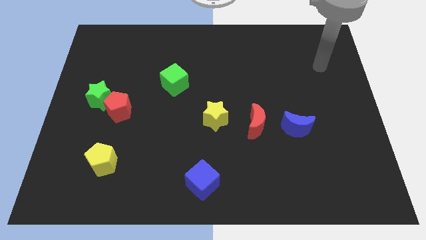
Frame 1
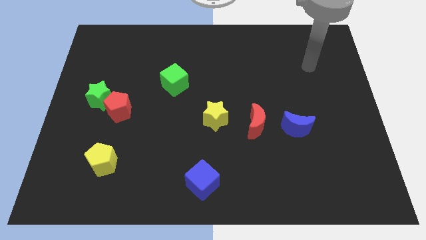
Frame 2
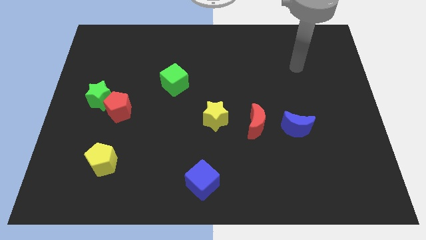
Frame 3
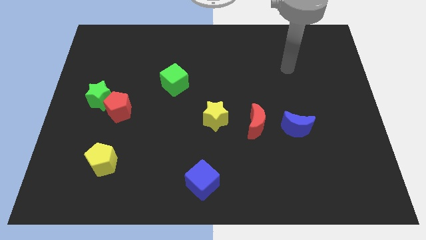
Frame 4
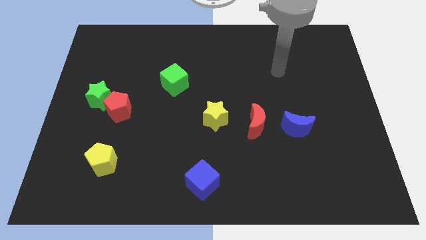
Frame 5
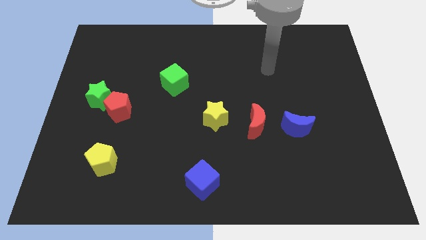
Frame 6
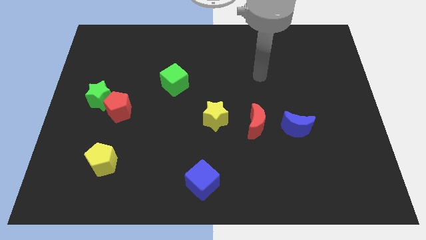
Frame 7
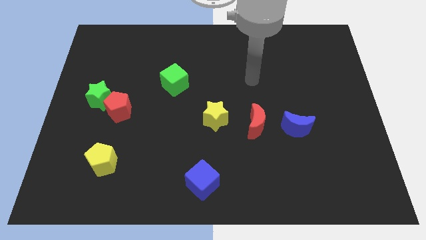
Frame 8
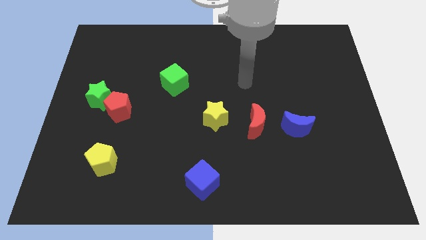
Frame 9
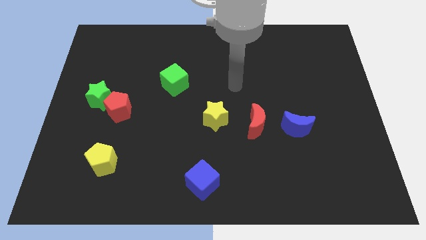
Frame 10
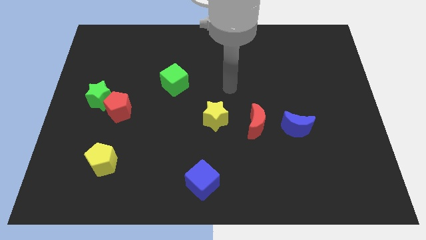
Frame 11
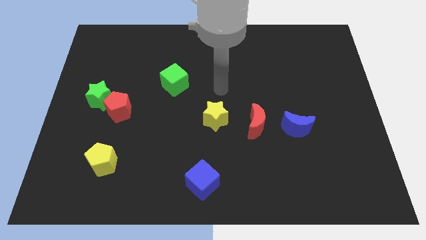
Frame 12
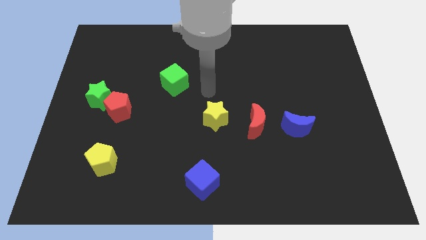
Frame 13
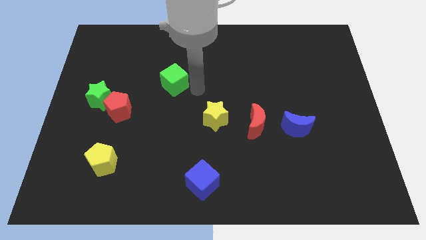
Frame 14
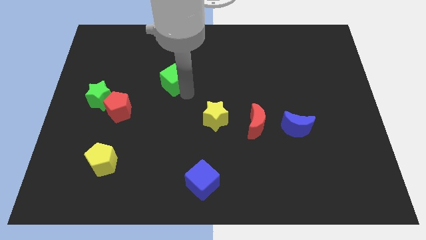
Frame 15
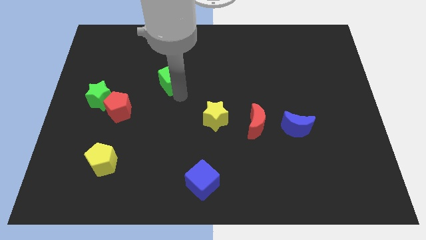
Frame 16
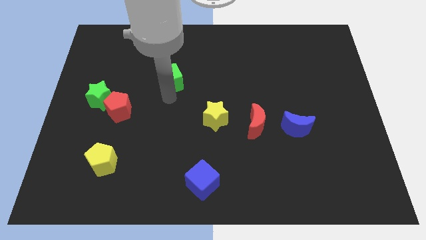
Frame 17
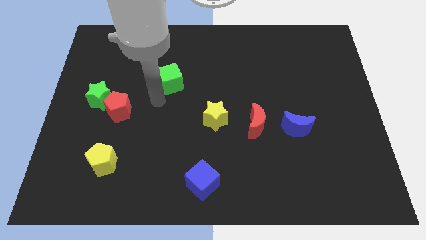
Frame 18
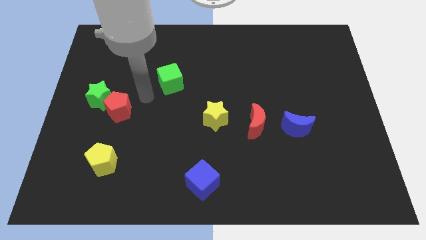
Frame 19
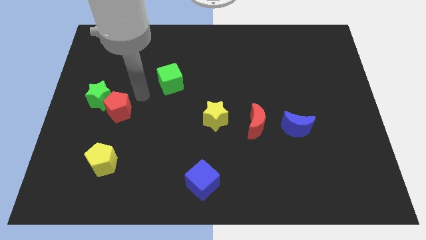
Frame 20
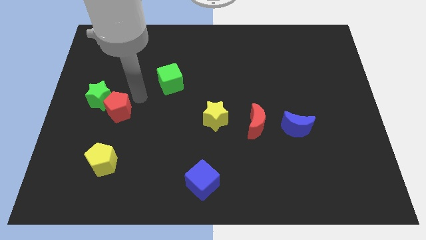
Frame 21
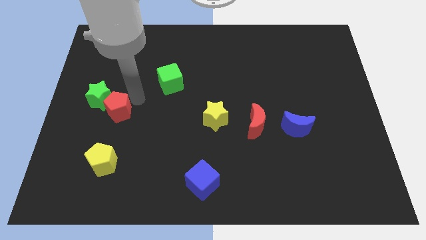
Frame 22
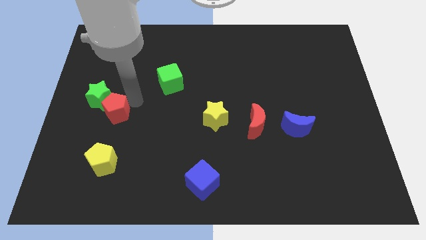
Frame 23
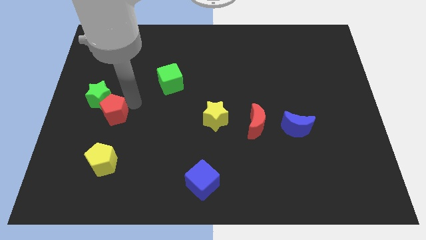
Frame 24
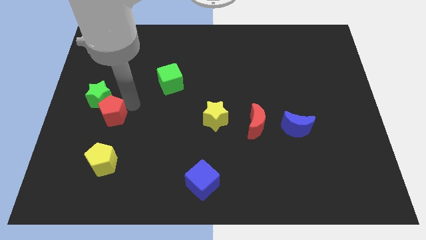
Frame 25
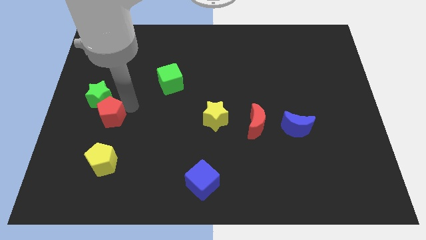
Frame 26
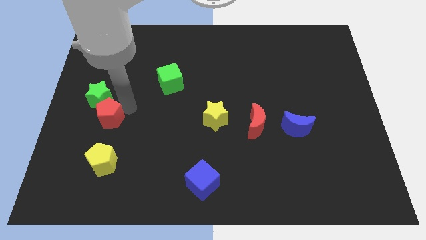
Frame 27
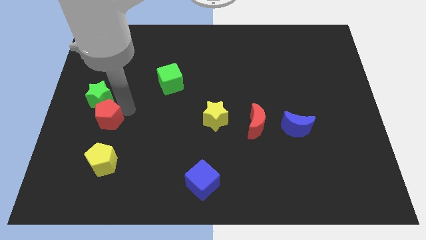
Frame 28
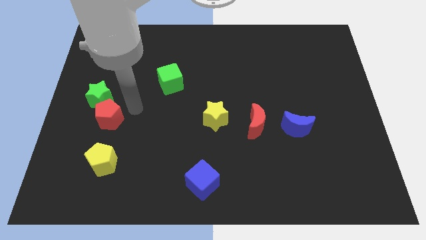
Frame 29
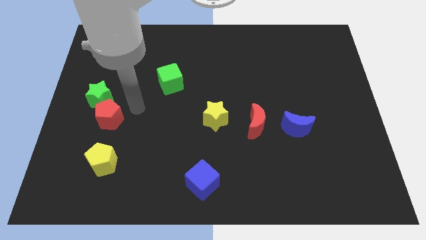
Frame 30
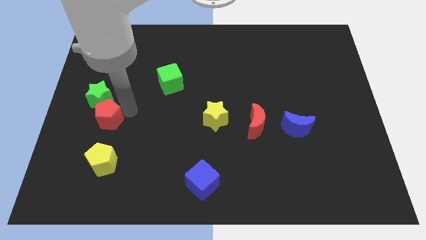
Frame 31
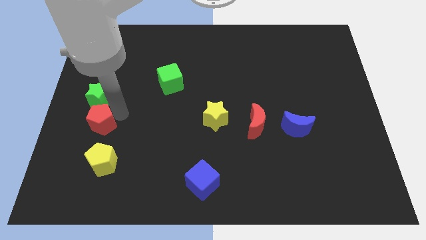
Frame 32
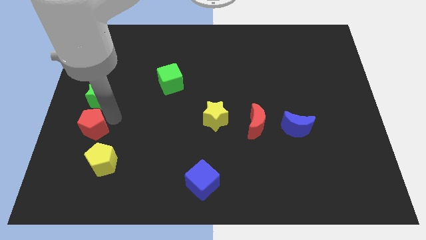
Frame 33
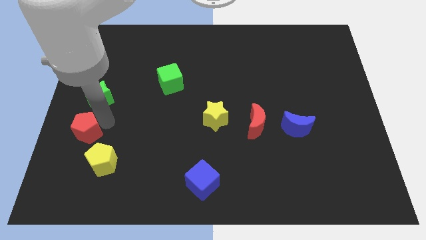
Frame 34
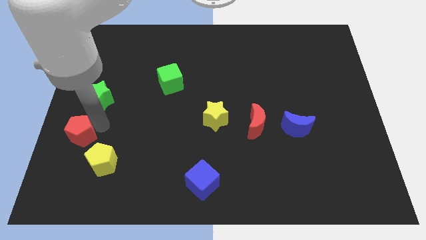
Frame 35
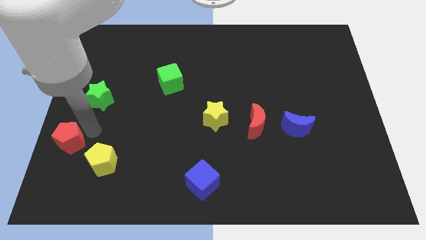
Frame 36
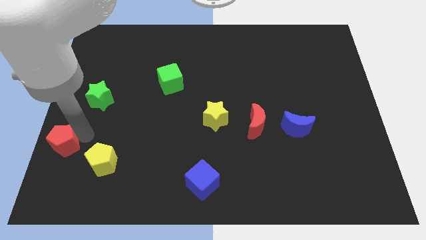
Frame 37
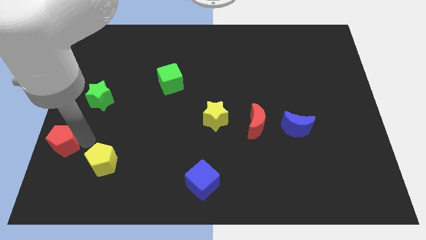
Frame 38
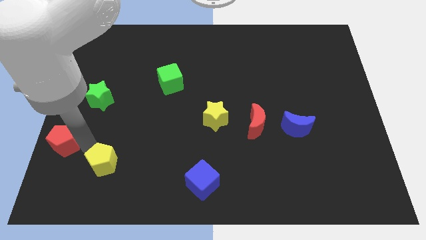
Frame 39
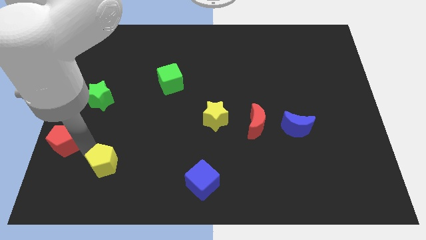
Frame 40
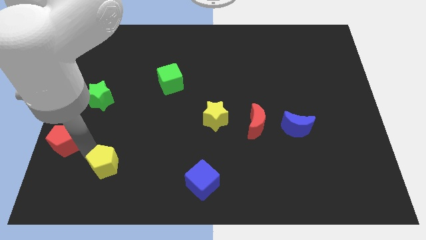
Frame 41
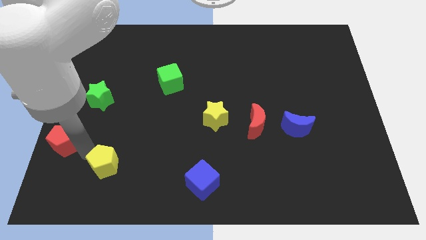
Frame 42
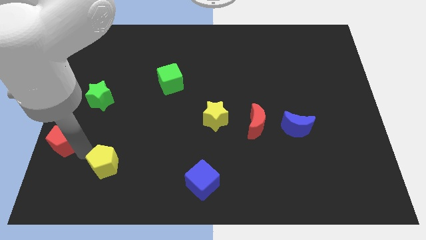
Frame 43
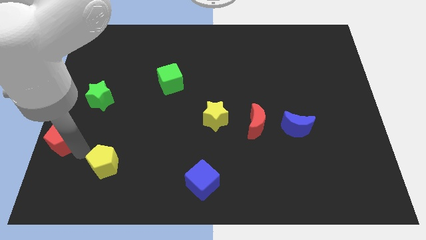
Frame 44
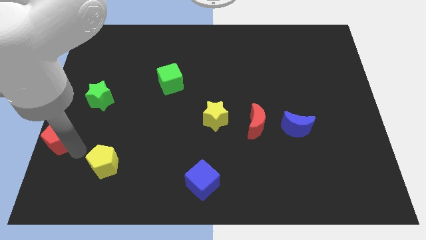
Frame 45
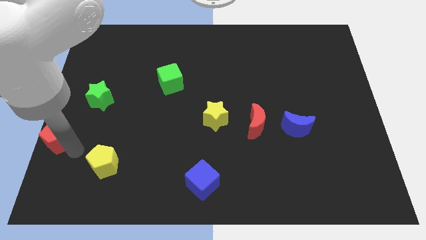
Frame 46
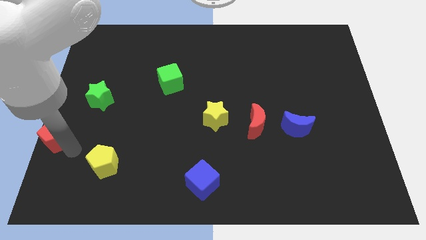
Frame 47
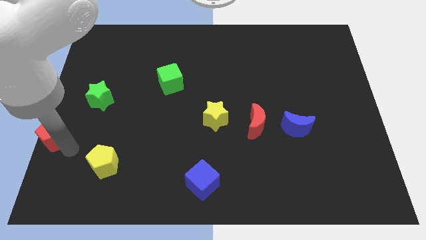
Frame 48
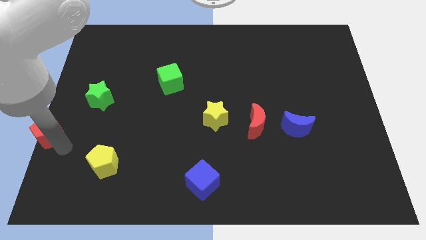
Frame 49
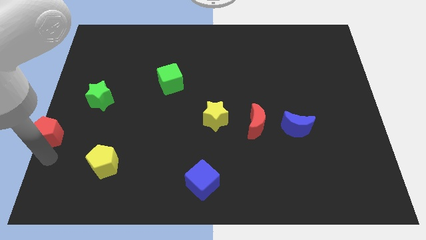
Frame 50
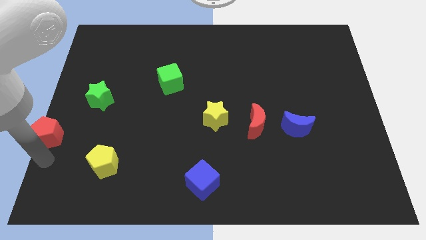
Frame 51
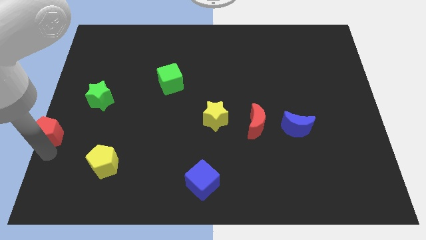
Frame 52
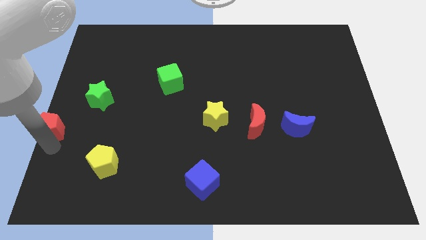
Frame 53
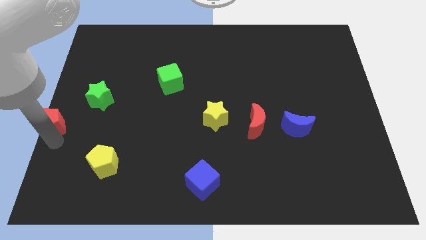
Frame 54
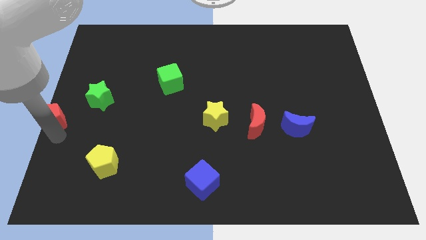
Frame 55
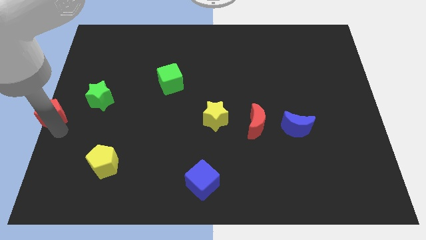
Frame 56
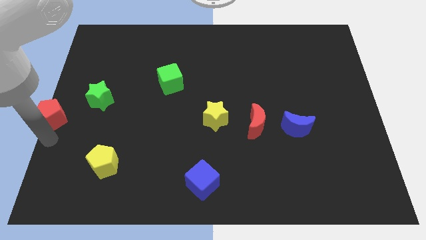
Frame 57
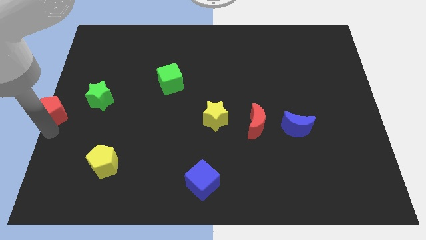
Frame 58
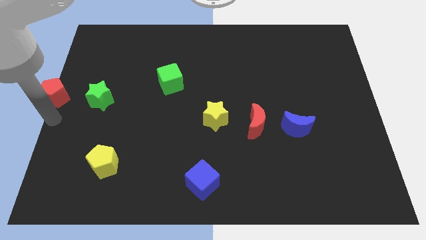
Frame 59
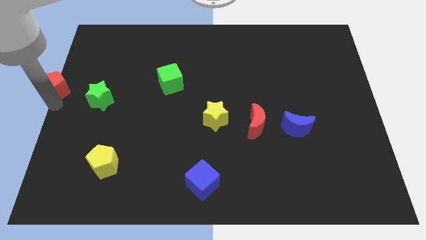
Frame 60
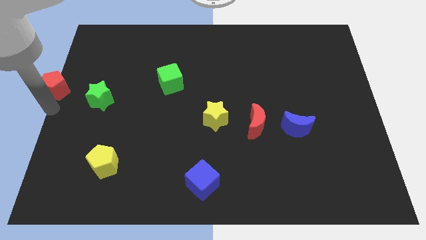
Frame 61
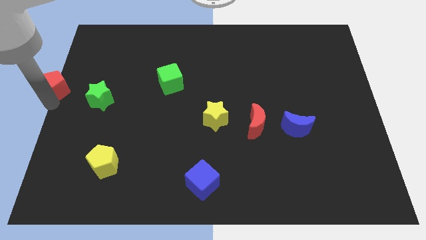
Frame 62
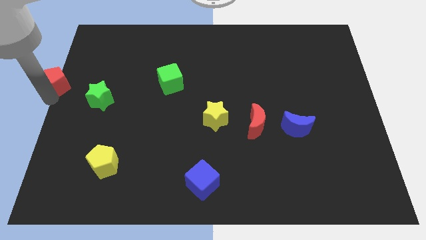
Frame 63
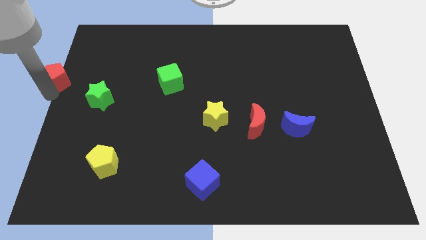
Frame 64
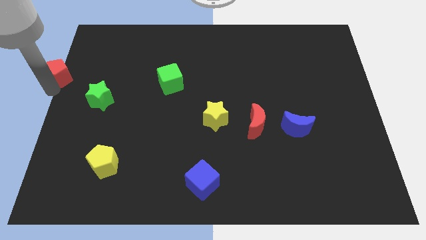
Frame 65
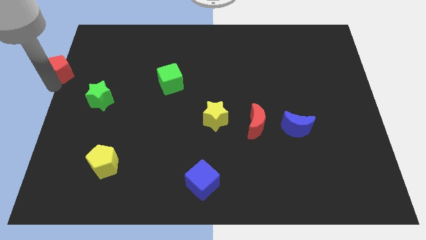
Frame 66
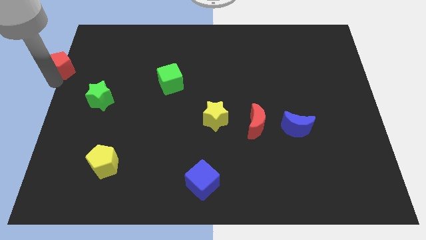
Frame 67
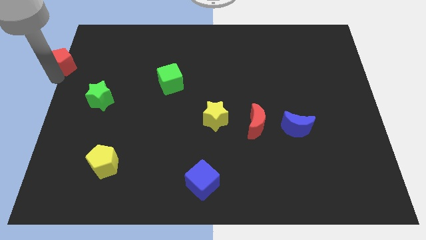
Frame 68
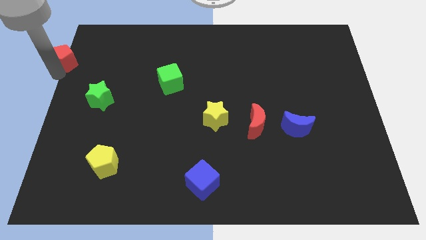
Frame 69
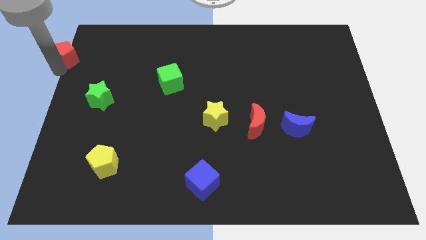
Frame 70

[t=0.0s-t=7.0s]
put the red pentagon to the top left corner
